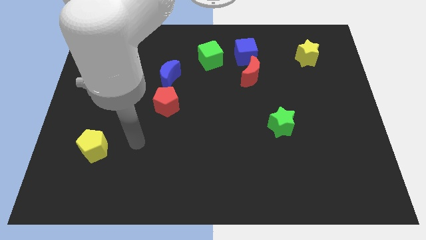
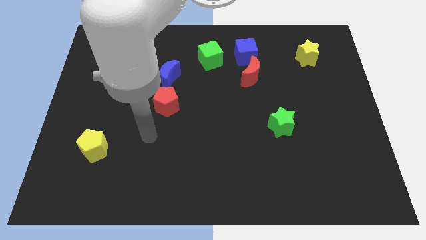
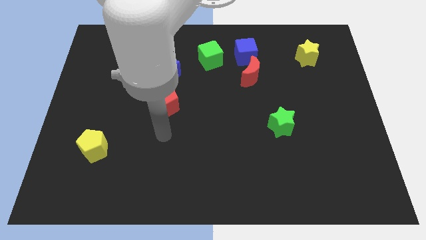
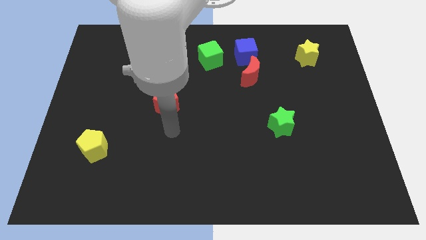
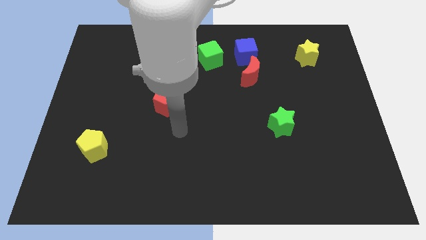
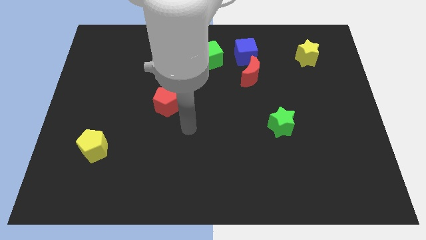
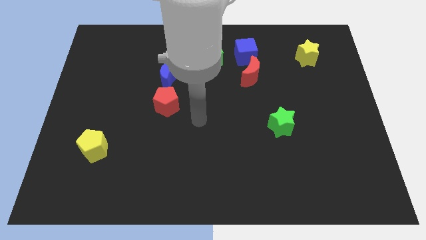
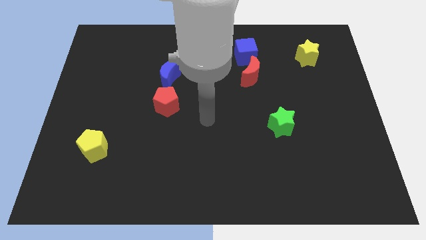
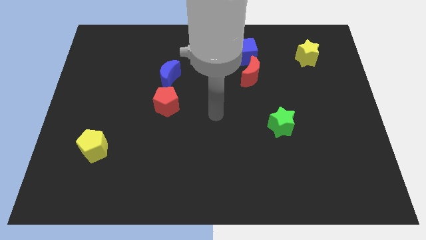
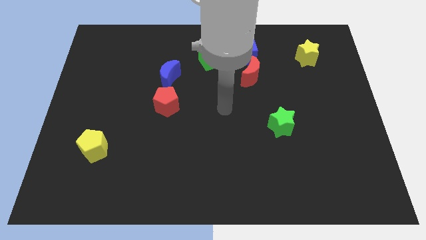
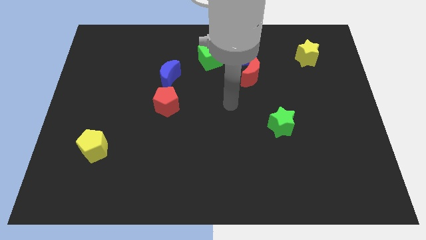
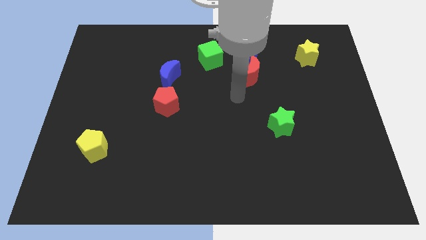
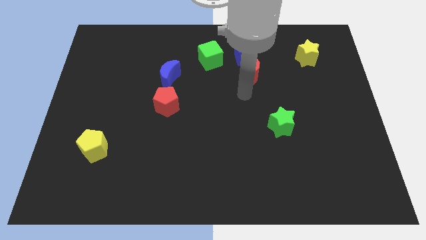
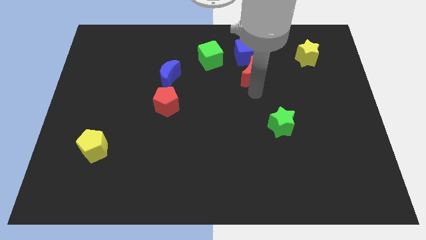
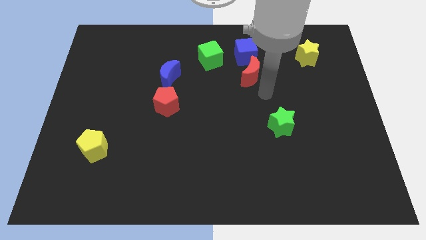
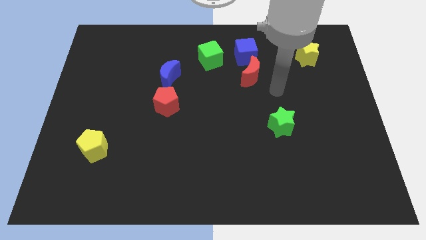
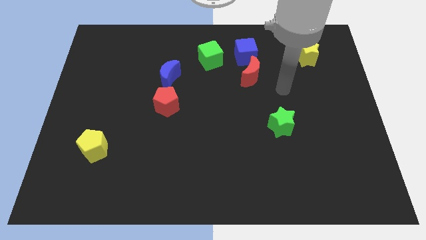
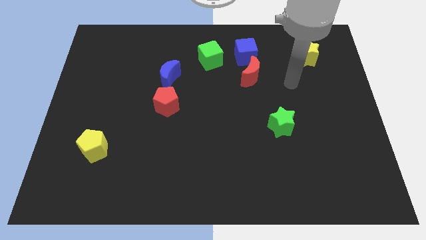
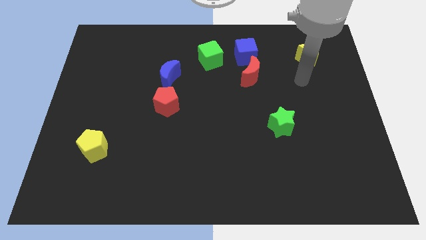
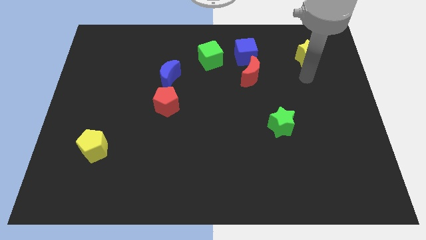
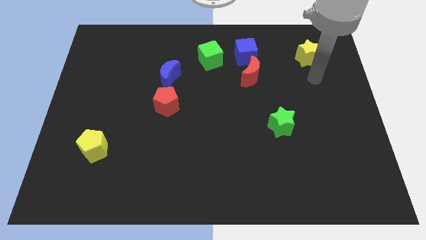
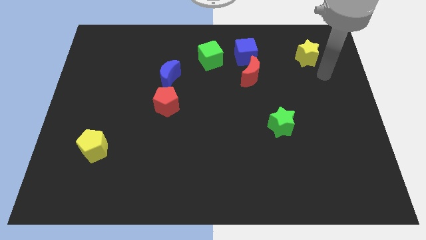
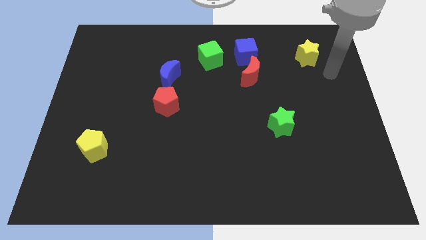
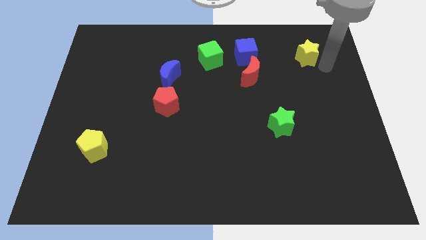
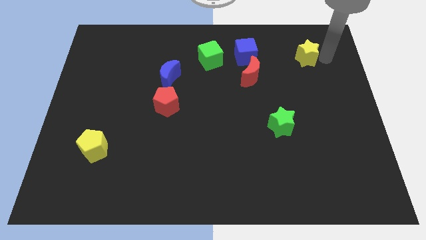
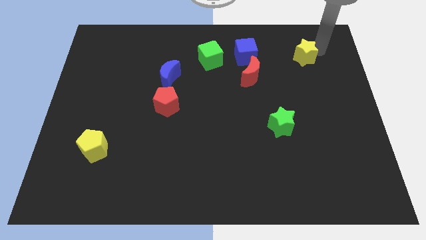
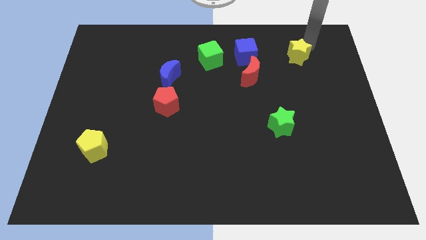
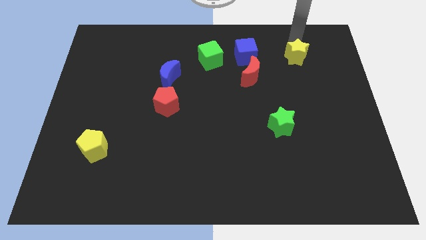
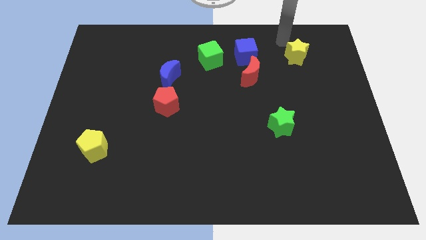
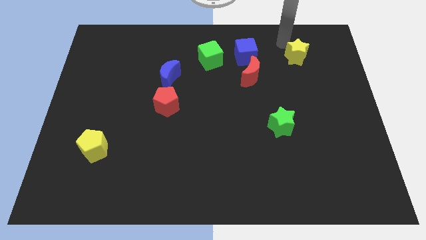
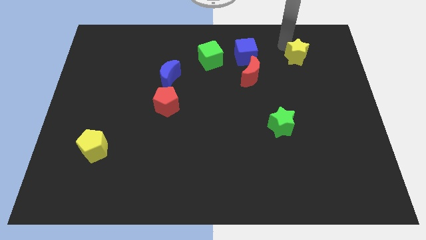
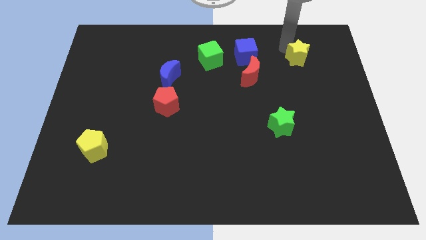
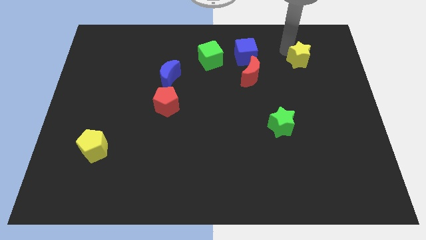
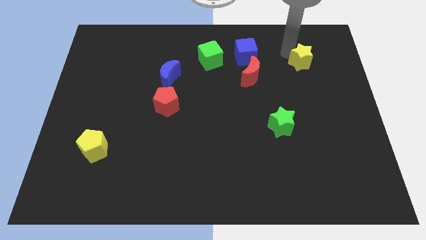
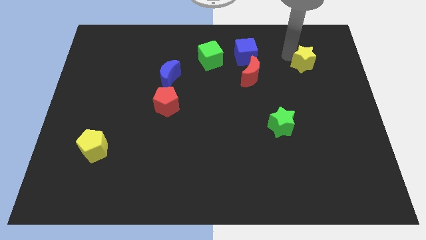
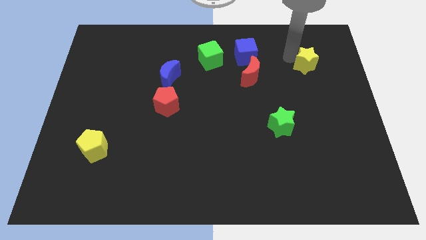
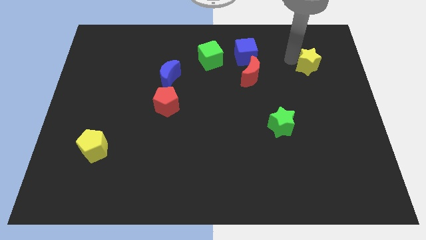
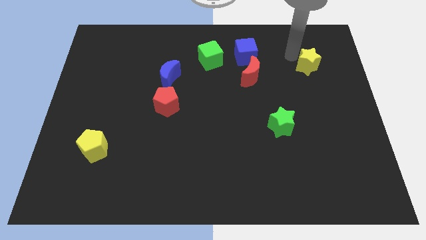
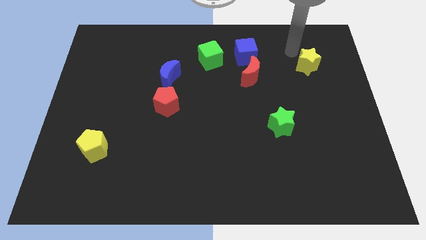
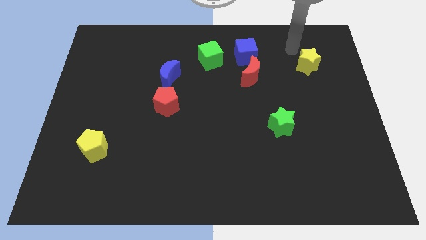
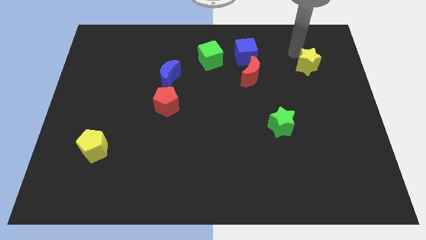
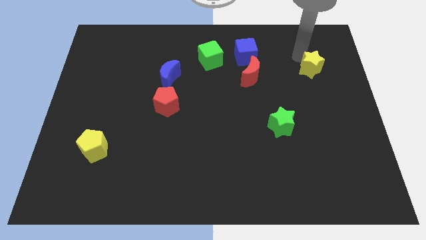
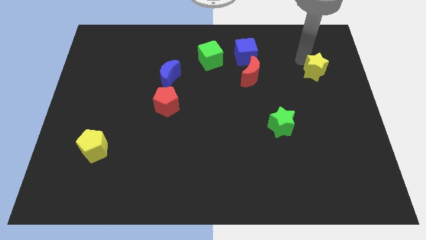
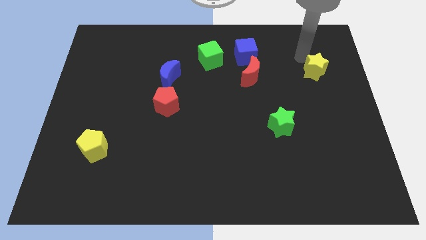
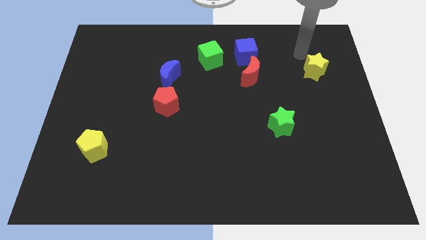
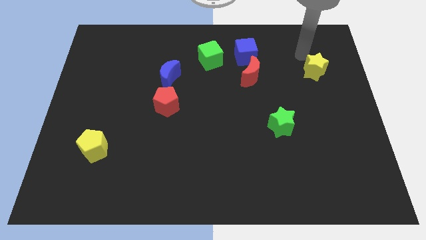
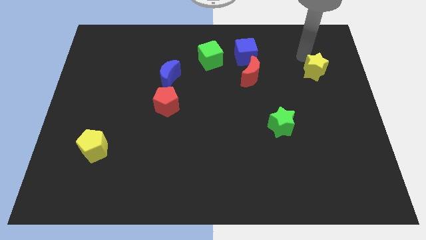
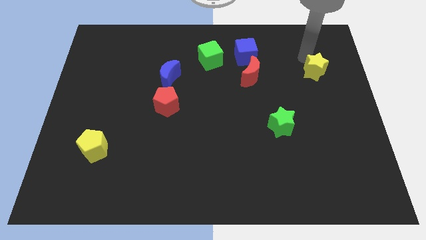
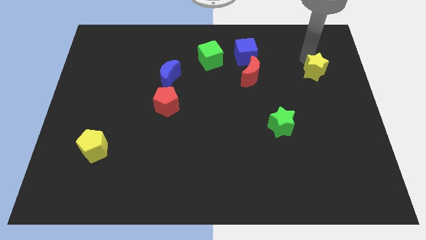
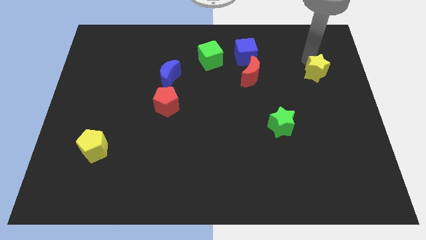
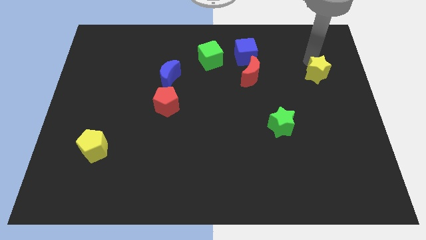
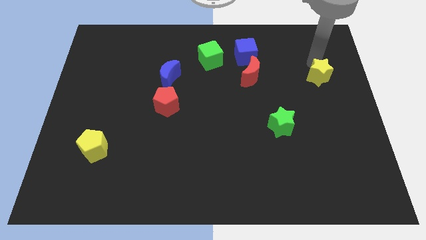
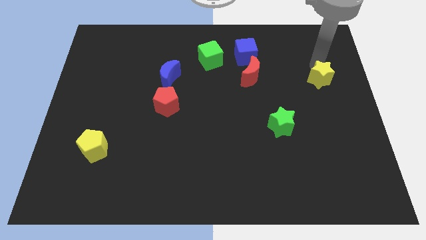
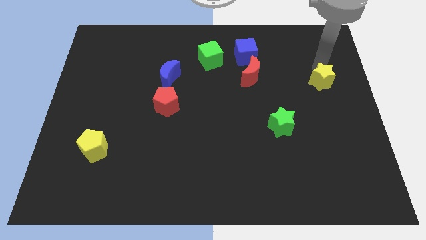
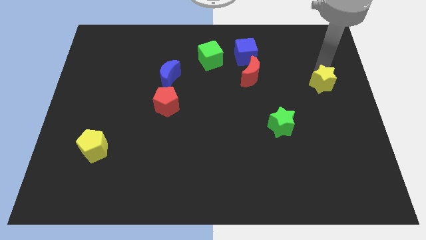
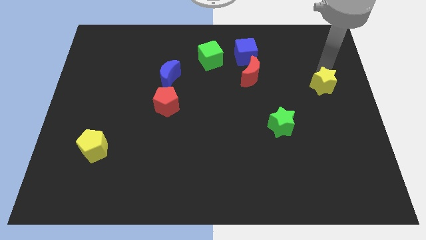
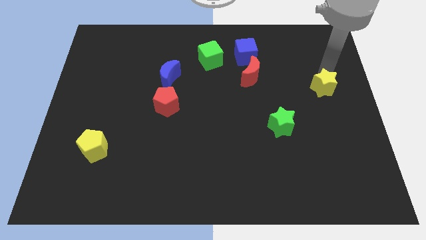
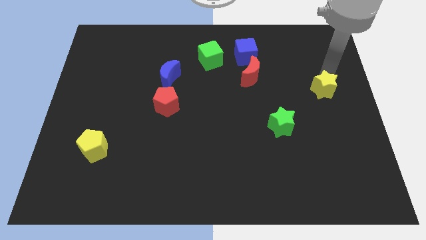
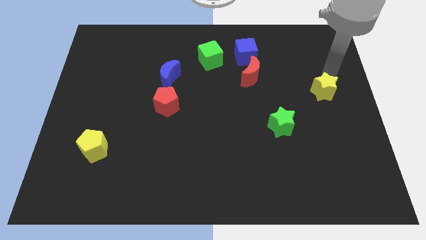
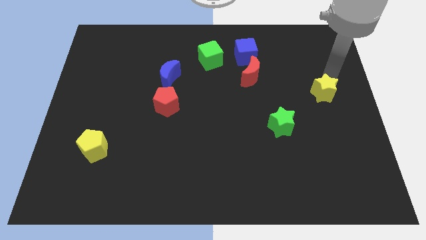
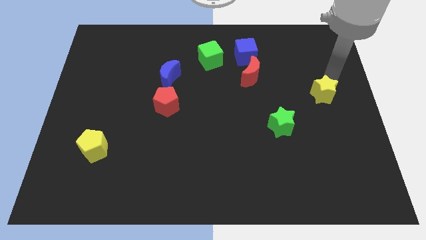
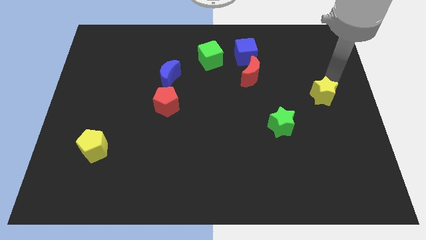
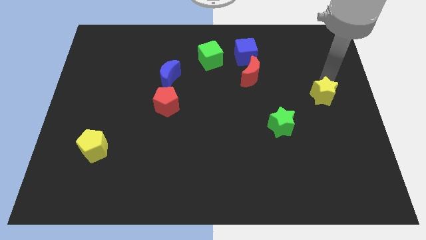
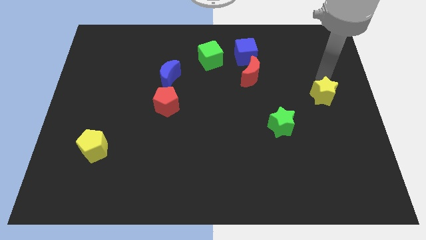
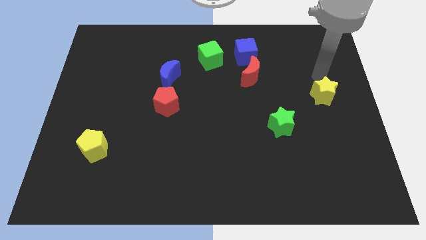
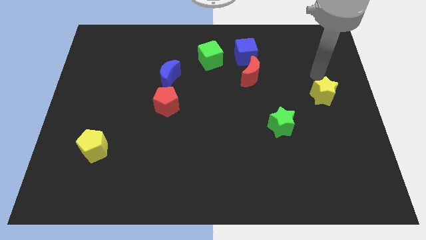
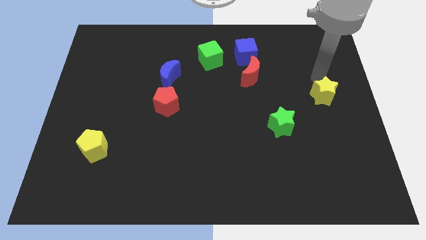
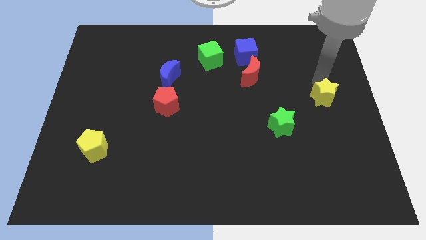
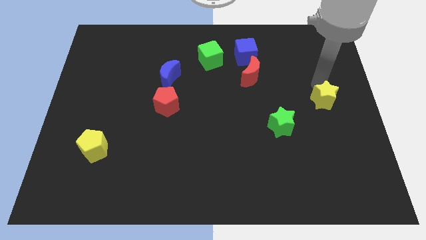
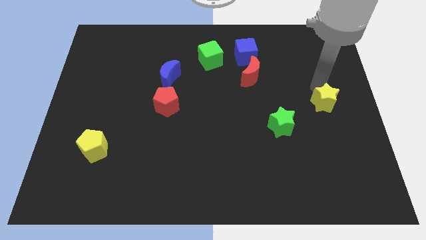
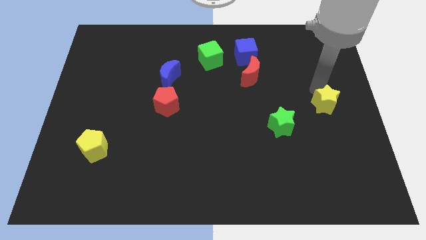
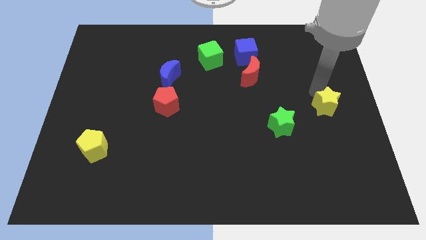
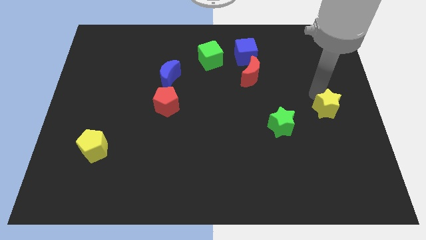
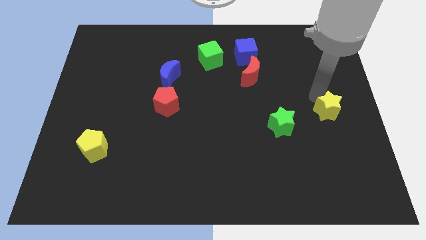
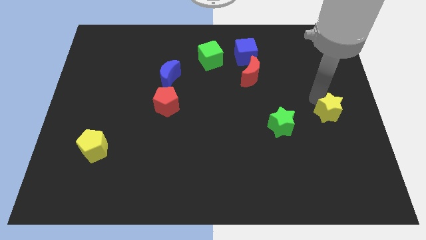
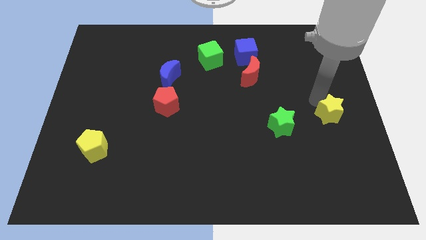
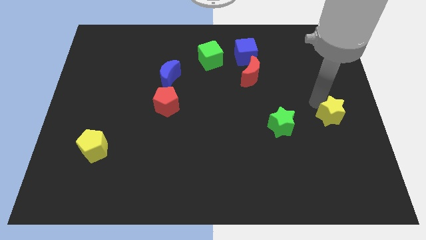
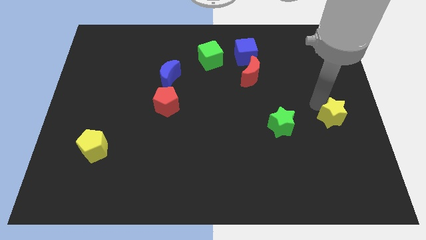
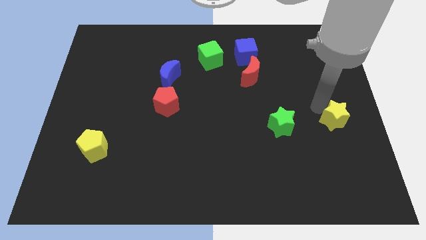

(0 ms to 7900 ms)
push the yellow star downwards
